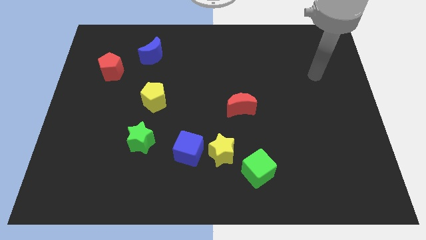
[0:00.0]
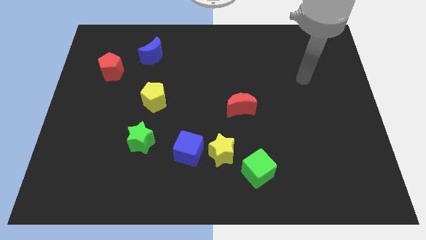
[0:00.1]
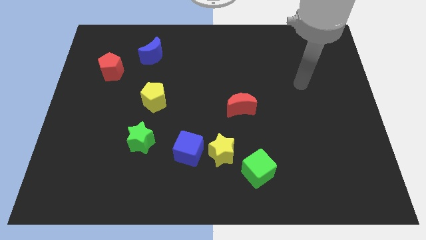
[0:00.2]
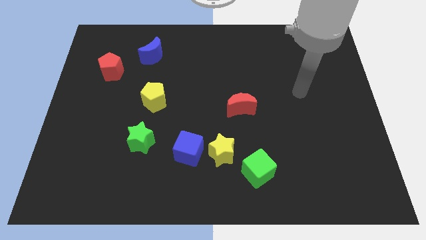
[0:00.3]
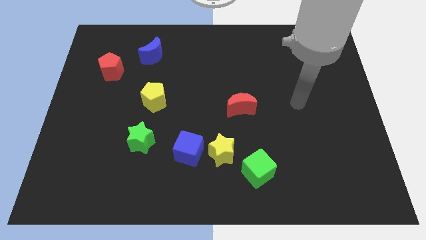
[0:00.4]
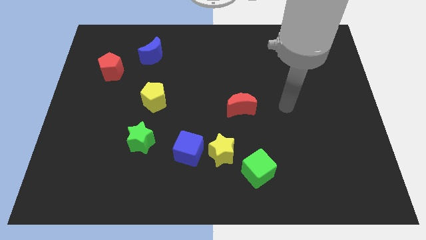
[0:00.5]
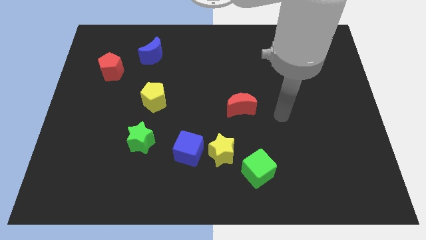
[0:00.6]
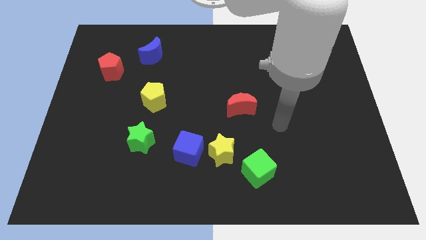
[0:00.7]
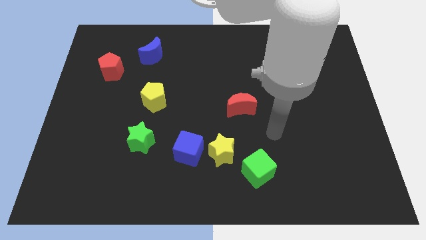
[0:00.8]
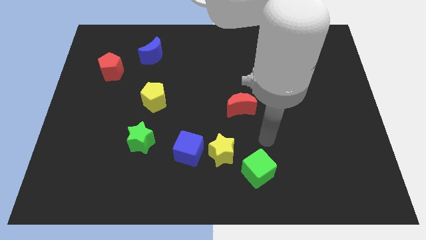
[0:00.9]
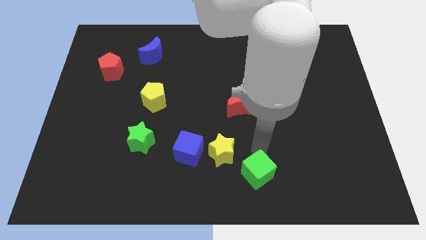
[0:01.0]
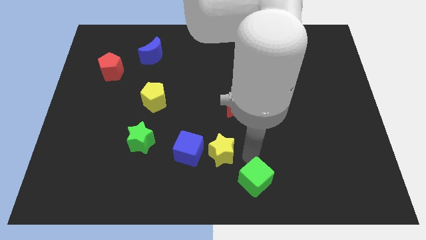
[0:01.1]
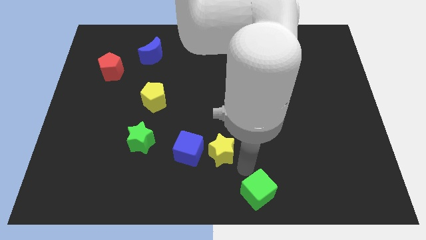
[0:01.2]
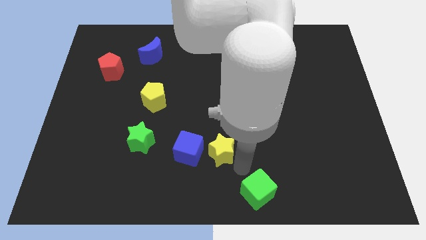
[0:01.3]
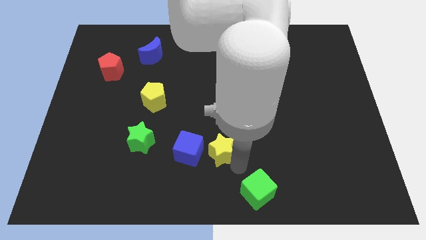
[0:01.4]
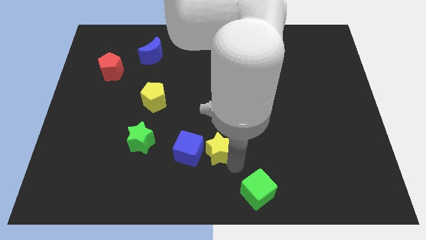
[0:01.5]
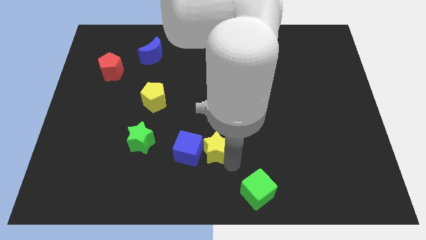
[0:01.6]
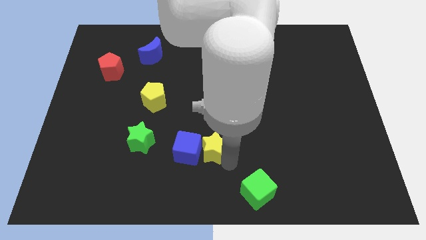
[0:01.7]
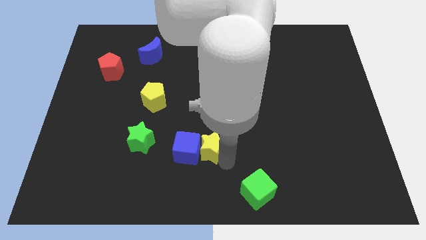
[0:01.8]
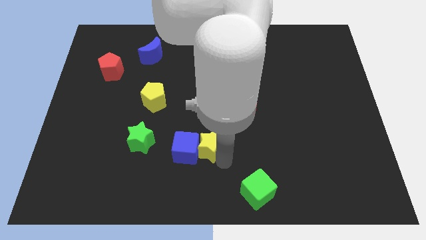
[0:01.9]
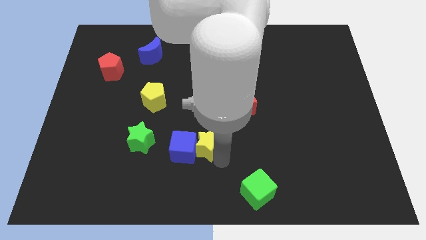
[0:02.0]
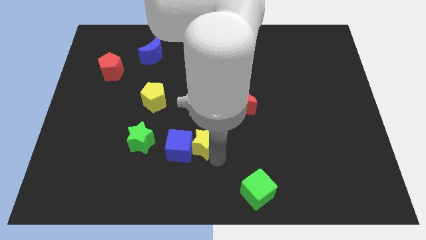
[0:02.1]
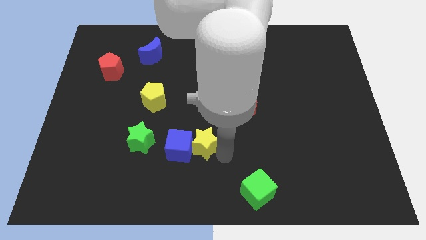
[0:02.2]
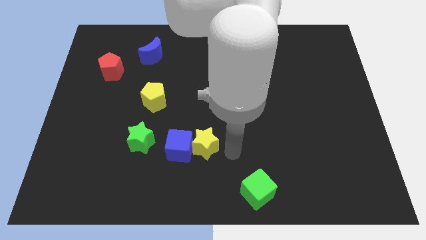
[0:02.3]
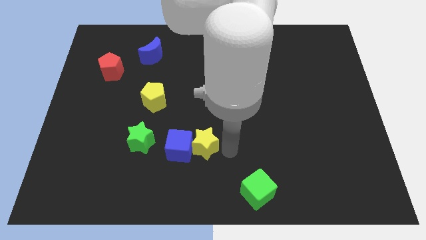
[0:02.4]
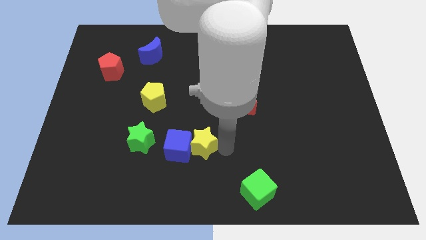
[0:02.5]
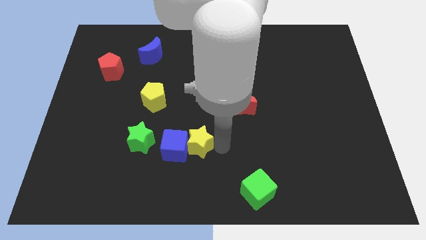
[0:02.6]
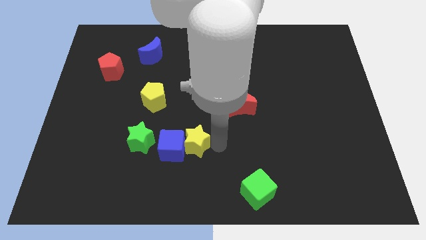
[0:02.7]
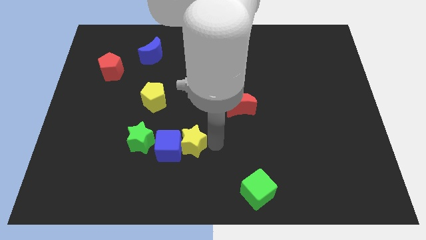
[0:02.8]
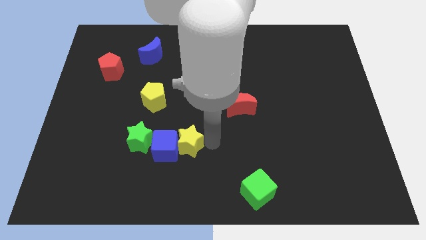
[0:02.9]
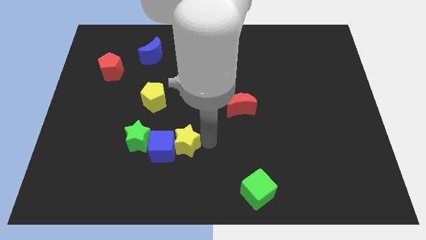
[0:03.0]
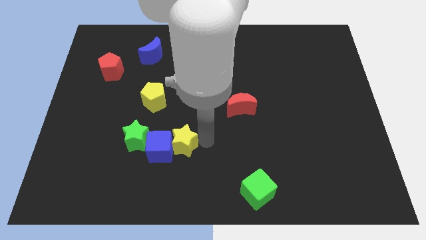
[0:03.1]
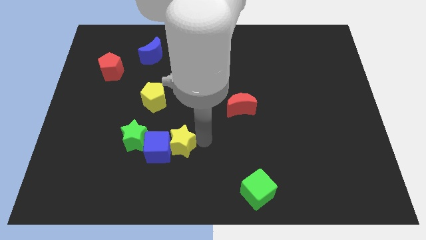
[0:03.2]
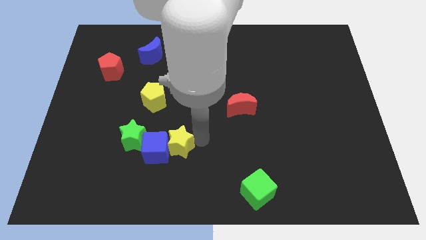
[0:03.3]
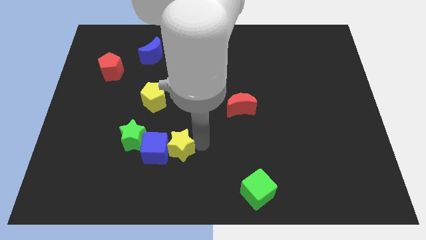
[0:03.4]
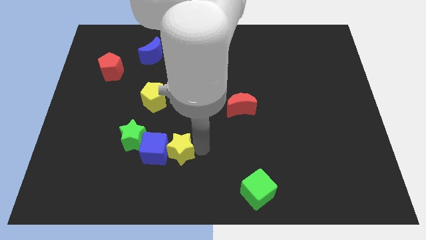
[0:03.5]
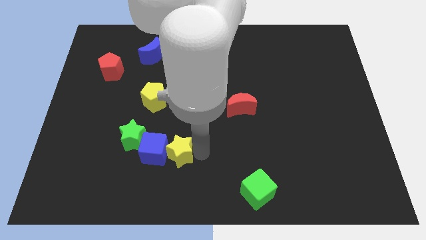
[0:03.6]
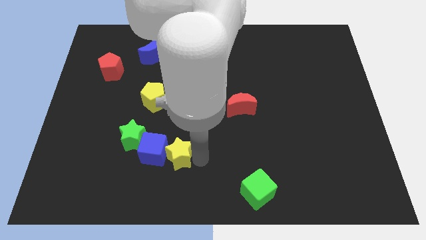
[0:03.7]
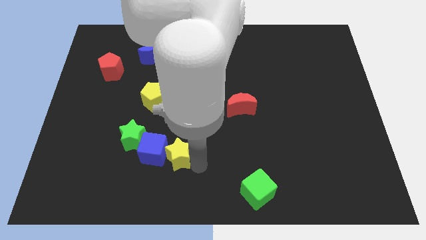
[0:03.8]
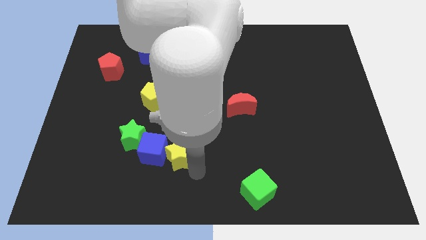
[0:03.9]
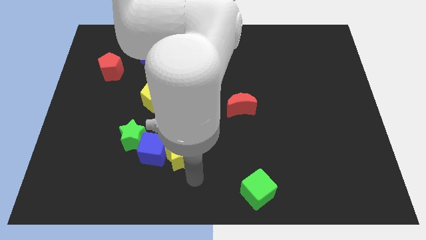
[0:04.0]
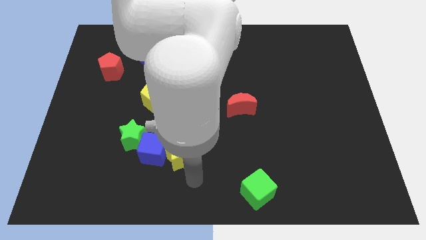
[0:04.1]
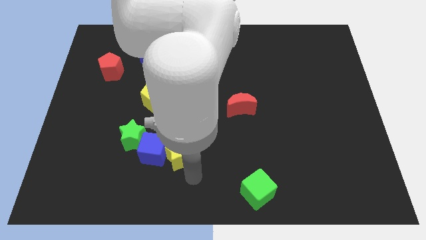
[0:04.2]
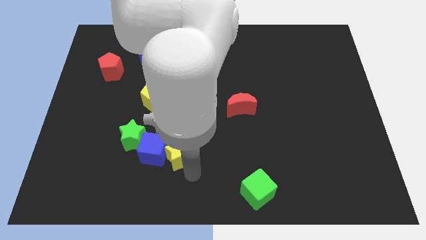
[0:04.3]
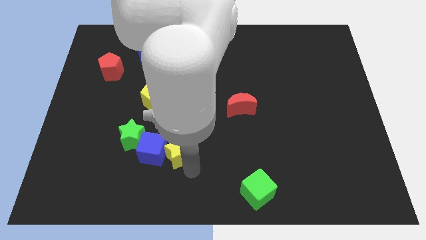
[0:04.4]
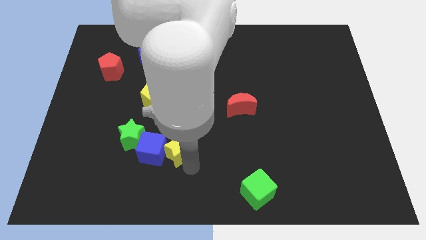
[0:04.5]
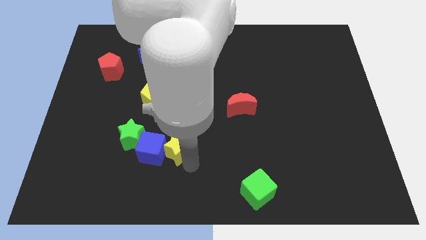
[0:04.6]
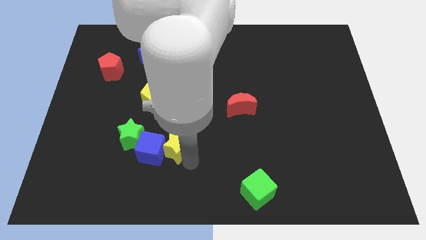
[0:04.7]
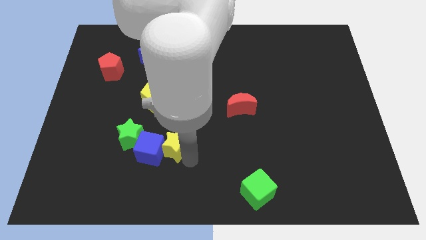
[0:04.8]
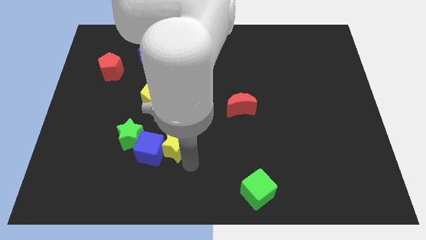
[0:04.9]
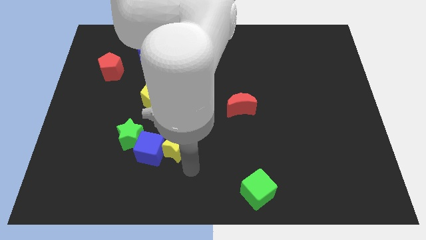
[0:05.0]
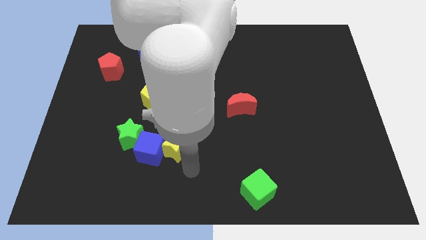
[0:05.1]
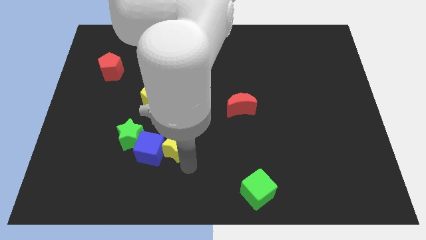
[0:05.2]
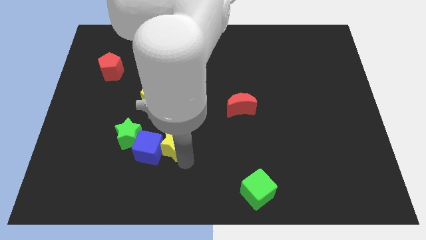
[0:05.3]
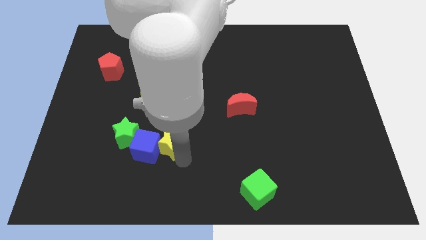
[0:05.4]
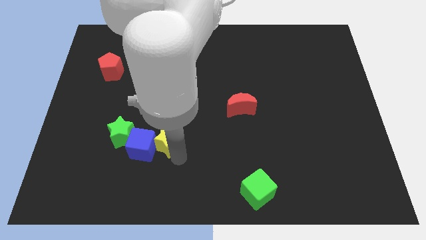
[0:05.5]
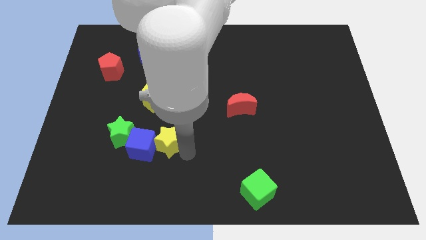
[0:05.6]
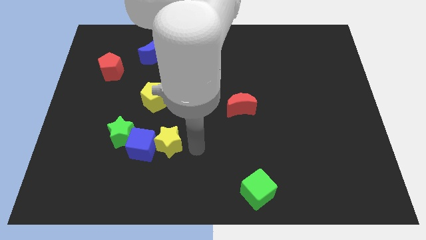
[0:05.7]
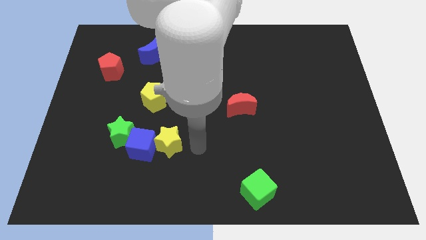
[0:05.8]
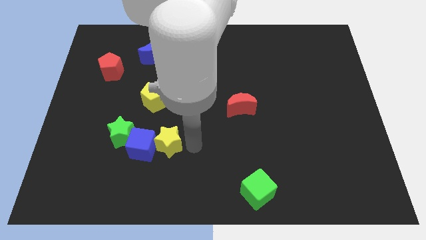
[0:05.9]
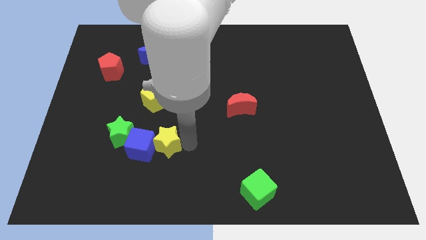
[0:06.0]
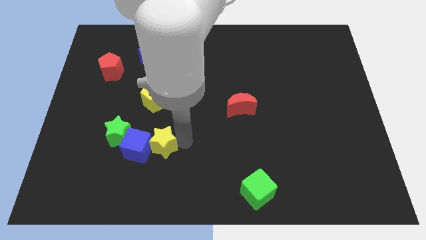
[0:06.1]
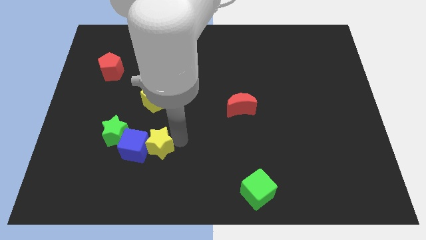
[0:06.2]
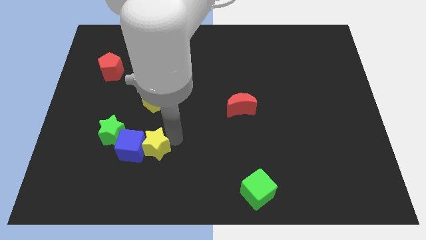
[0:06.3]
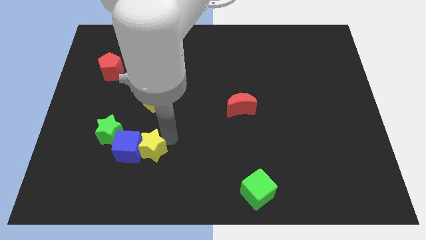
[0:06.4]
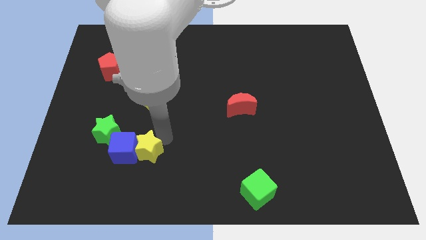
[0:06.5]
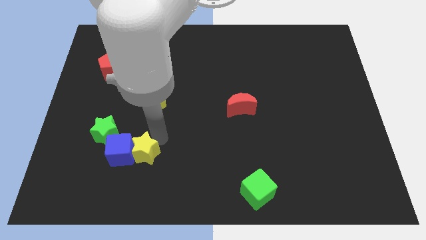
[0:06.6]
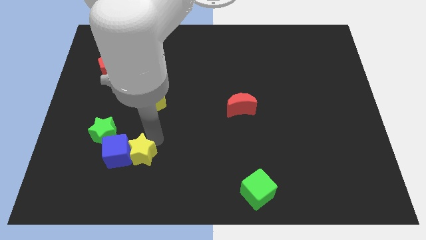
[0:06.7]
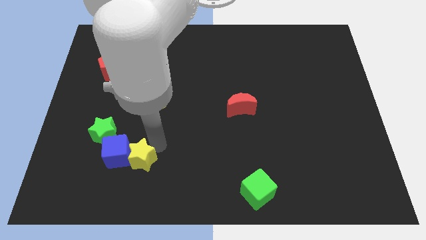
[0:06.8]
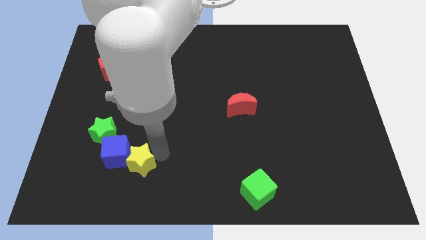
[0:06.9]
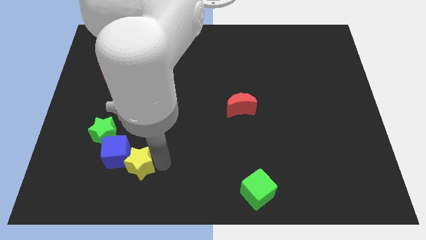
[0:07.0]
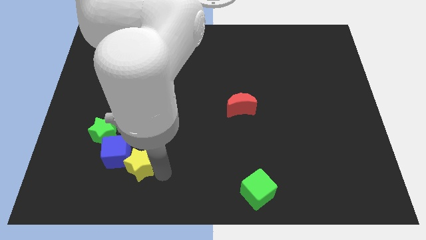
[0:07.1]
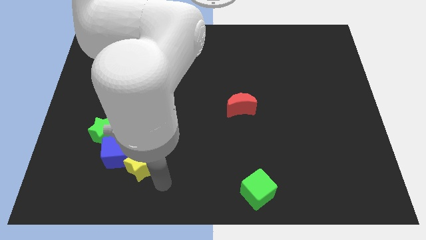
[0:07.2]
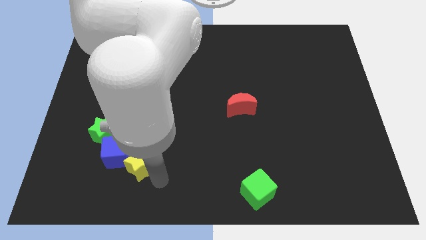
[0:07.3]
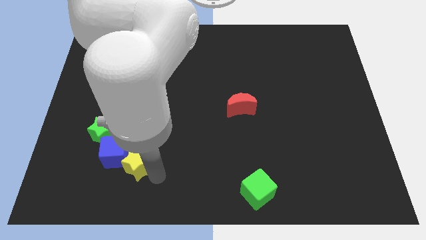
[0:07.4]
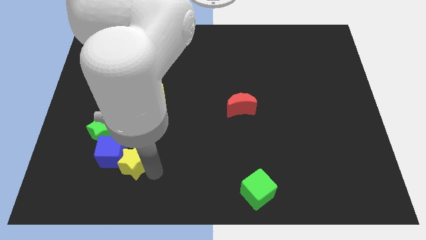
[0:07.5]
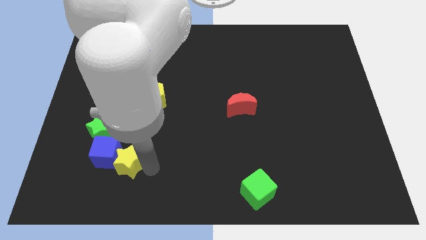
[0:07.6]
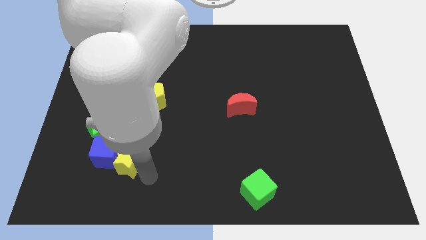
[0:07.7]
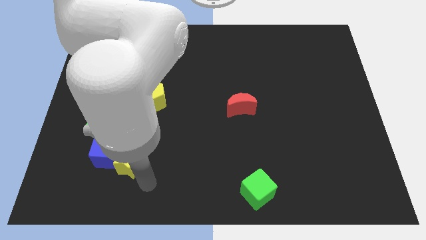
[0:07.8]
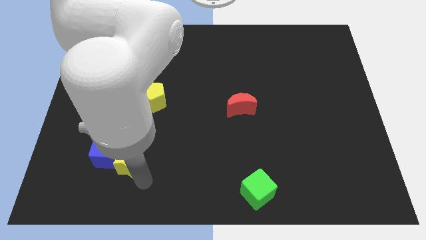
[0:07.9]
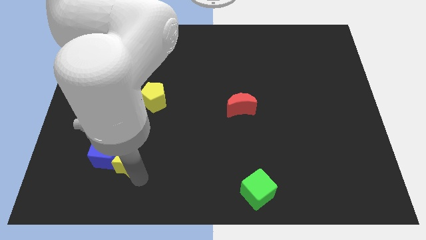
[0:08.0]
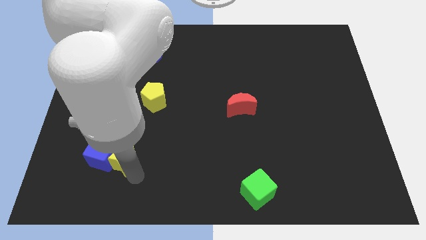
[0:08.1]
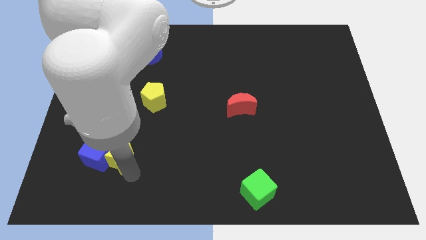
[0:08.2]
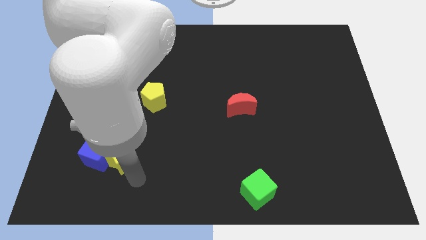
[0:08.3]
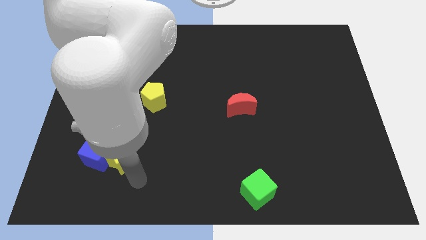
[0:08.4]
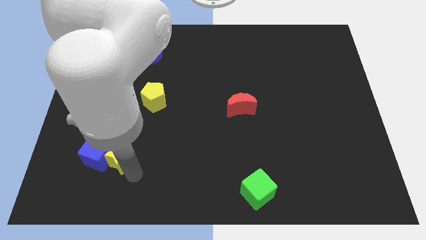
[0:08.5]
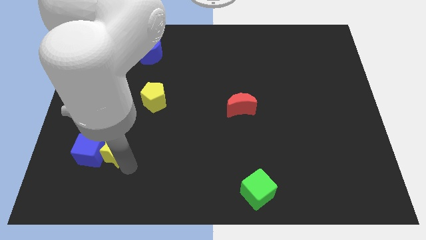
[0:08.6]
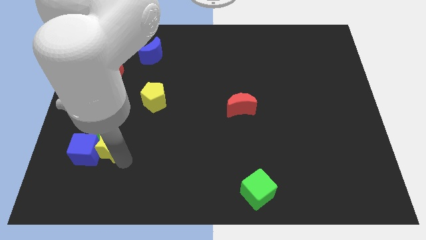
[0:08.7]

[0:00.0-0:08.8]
slide the yellow star to the green star
